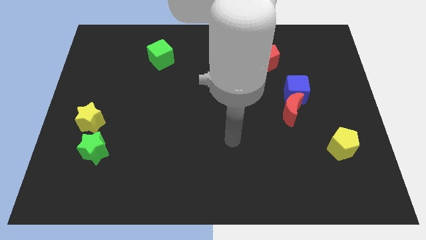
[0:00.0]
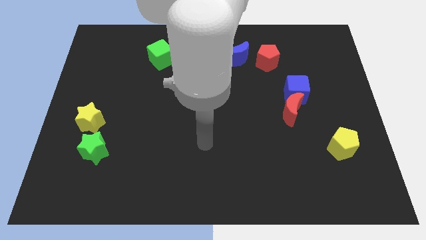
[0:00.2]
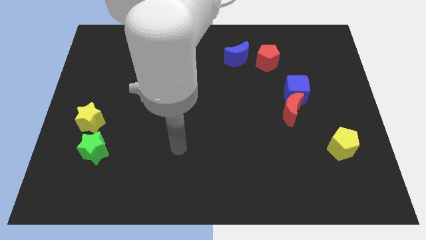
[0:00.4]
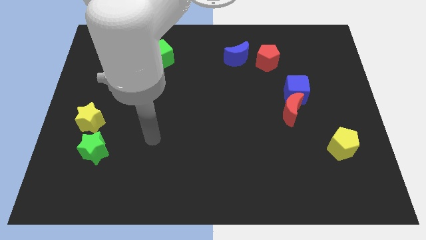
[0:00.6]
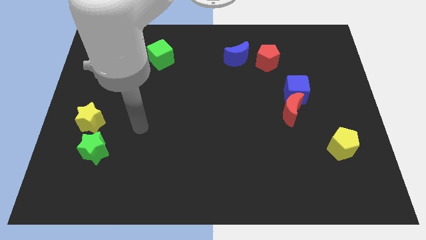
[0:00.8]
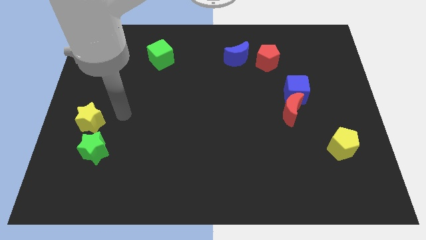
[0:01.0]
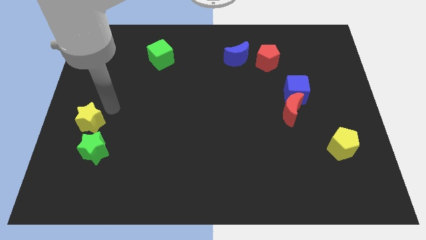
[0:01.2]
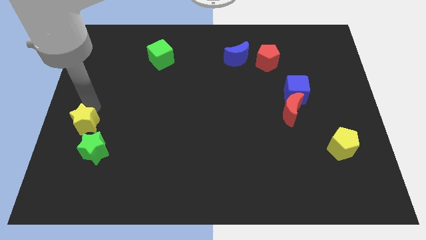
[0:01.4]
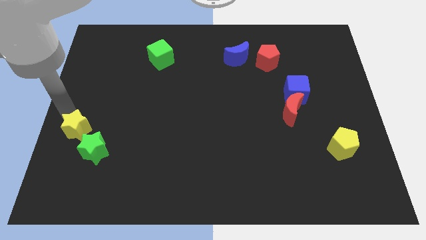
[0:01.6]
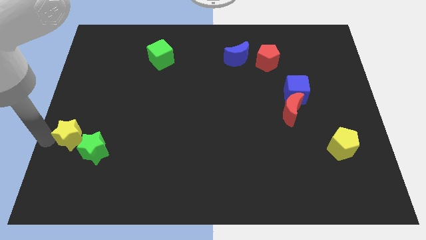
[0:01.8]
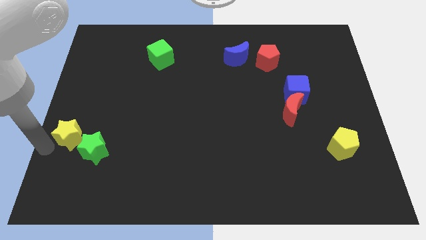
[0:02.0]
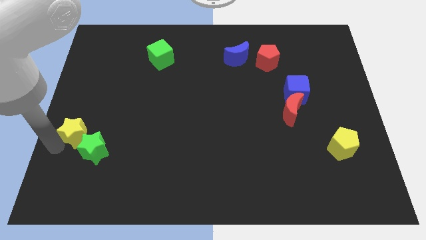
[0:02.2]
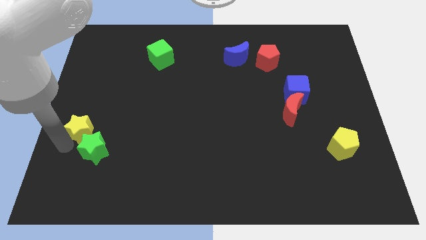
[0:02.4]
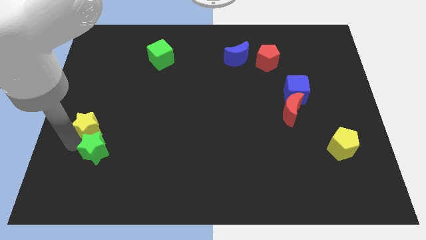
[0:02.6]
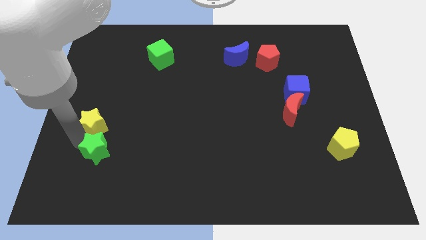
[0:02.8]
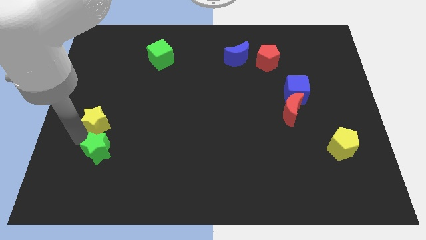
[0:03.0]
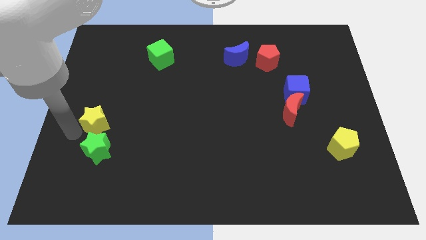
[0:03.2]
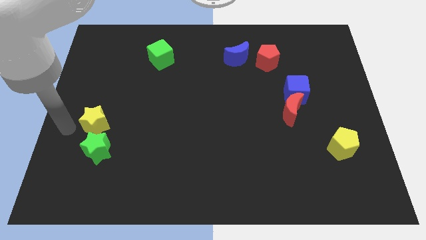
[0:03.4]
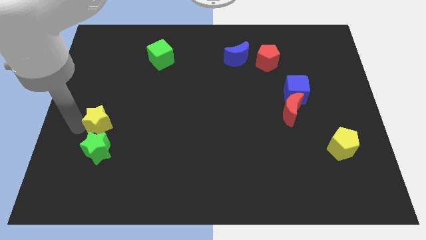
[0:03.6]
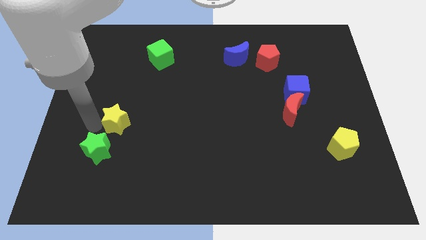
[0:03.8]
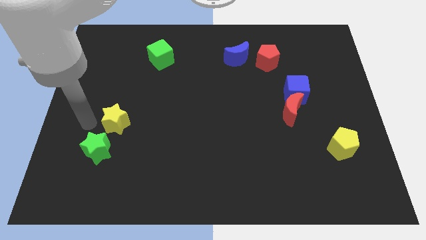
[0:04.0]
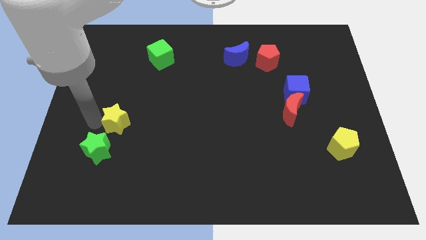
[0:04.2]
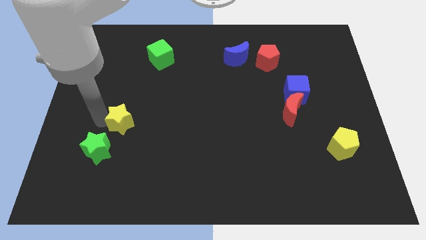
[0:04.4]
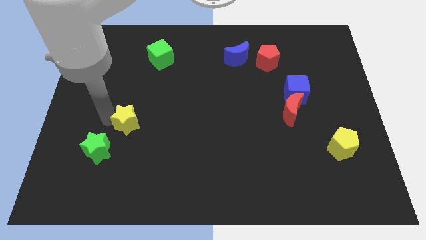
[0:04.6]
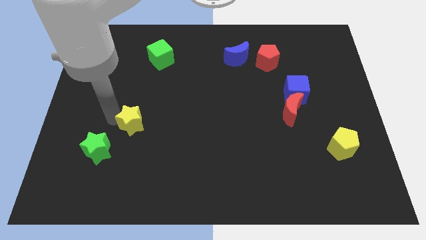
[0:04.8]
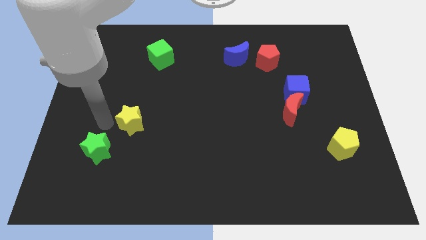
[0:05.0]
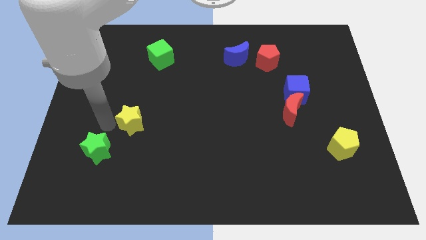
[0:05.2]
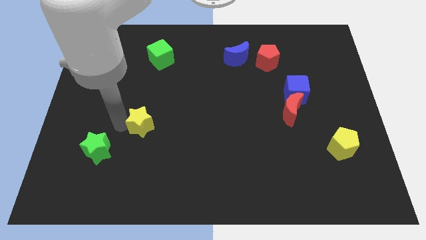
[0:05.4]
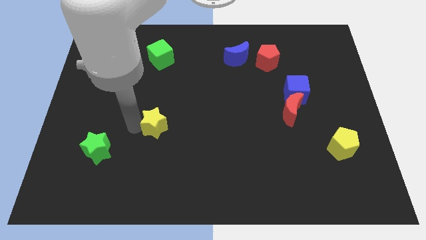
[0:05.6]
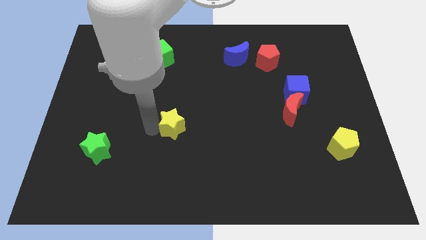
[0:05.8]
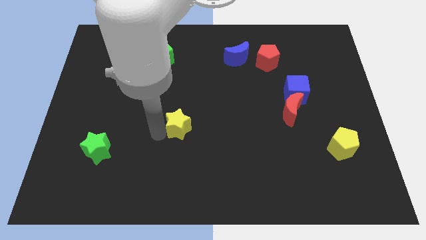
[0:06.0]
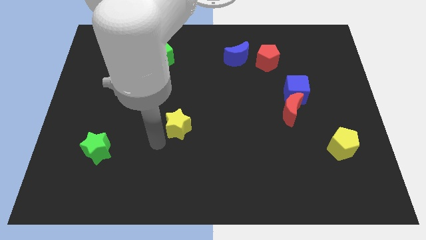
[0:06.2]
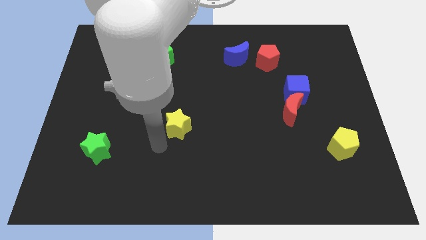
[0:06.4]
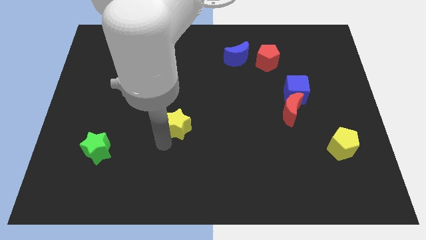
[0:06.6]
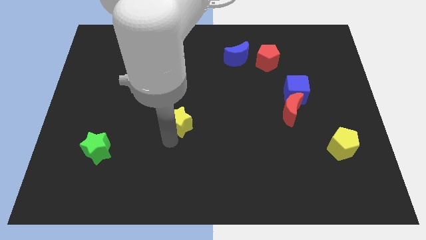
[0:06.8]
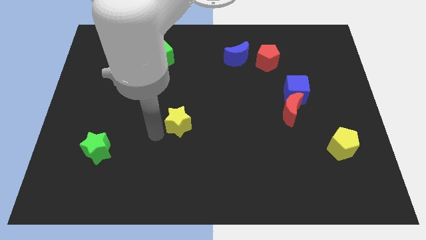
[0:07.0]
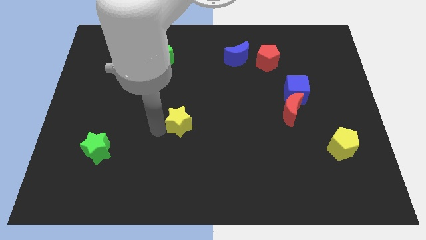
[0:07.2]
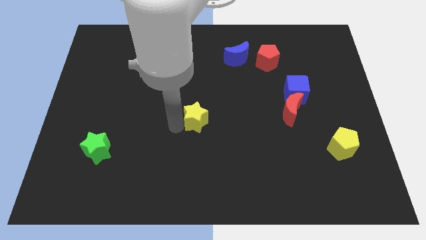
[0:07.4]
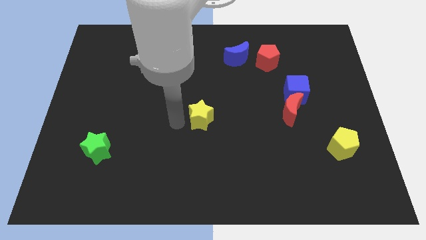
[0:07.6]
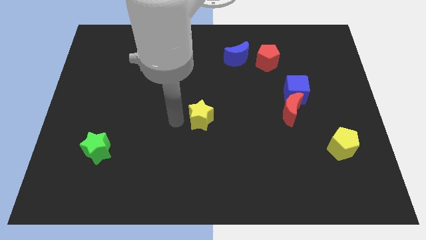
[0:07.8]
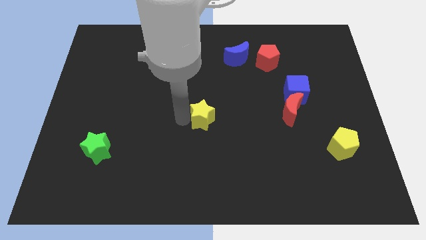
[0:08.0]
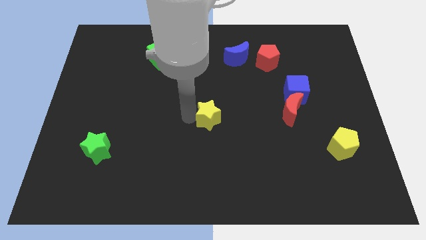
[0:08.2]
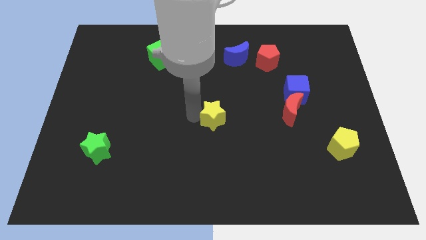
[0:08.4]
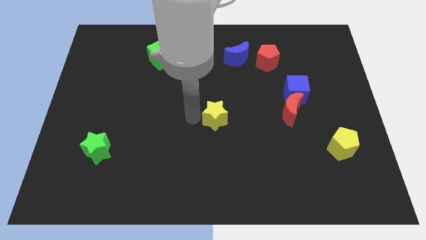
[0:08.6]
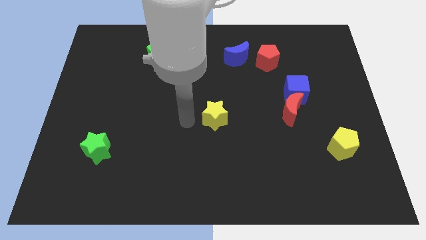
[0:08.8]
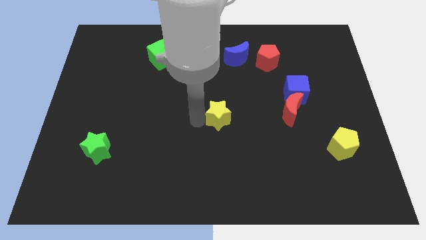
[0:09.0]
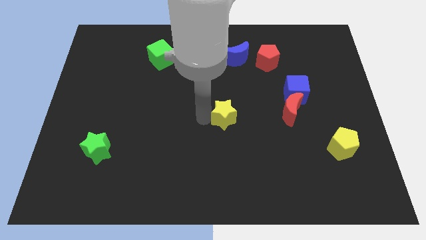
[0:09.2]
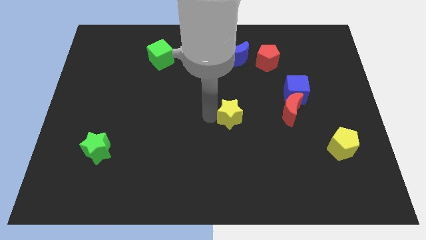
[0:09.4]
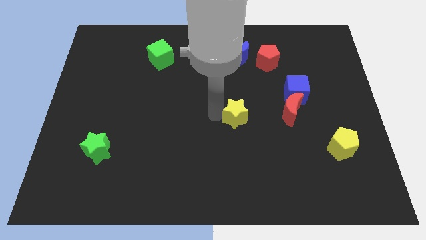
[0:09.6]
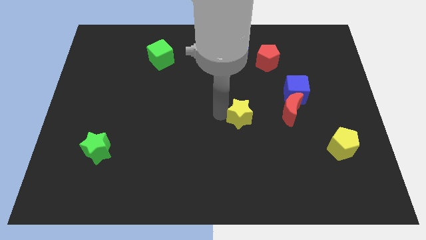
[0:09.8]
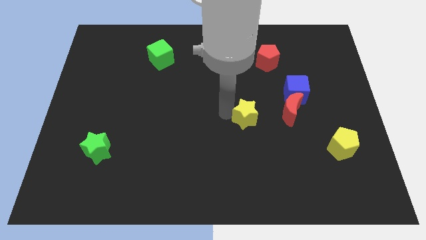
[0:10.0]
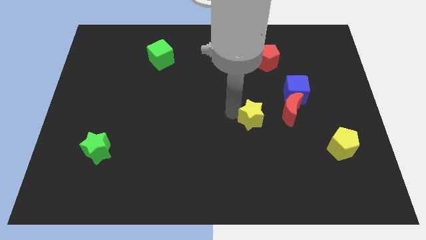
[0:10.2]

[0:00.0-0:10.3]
slide the yellow star to the bottom left of the red moon

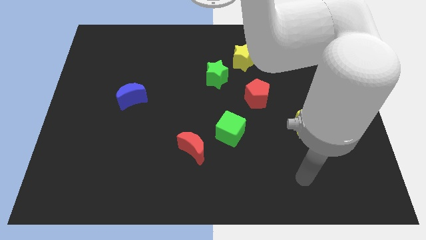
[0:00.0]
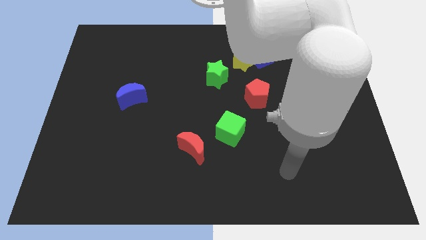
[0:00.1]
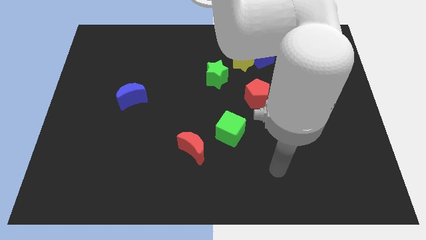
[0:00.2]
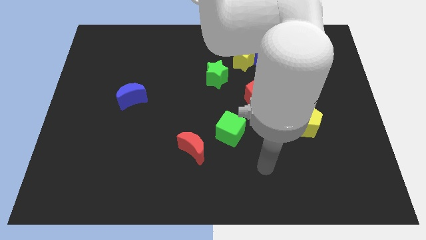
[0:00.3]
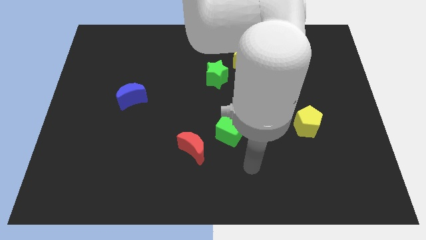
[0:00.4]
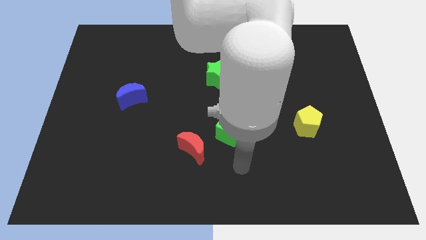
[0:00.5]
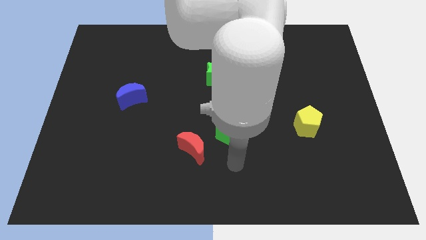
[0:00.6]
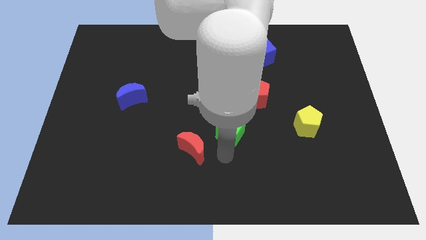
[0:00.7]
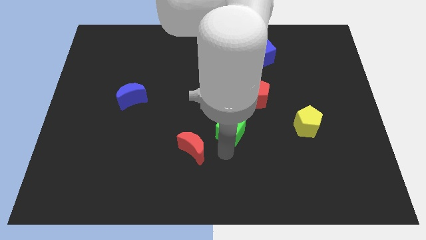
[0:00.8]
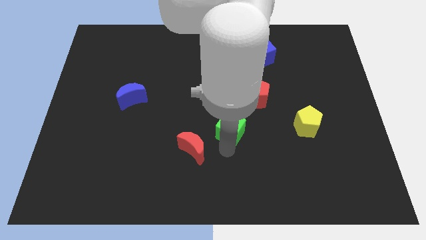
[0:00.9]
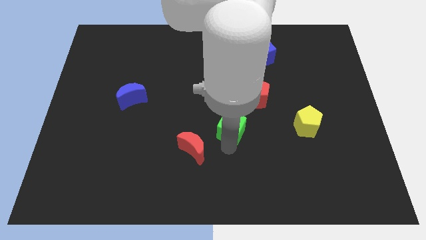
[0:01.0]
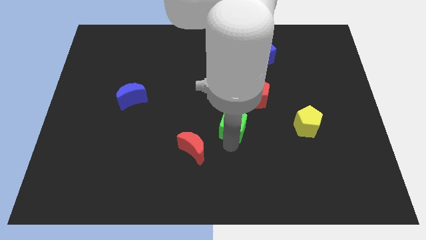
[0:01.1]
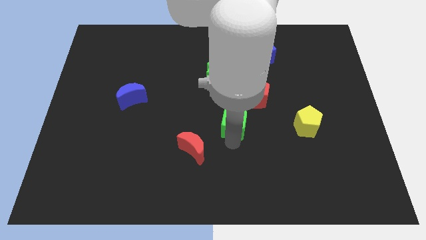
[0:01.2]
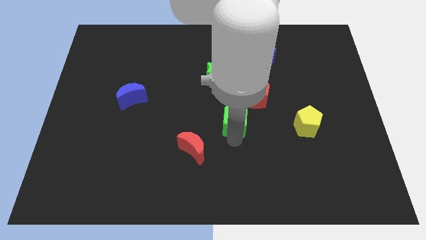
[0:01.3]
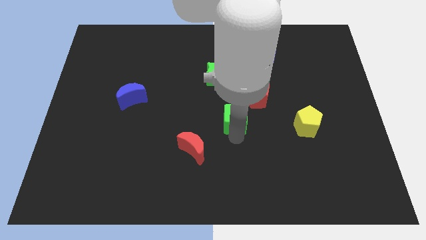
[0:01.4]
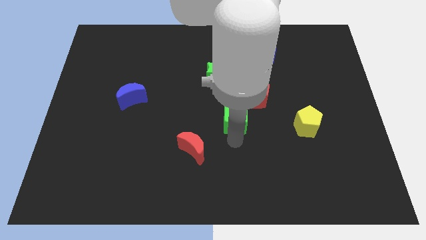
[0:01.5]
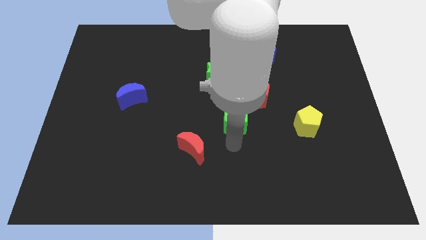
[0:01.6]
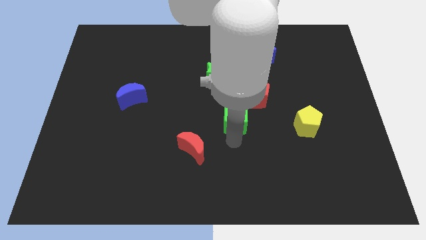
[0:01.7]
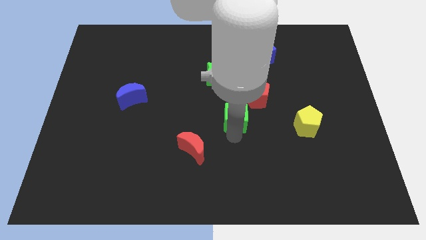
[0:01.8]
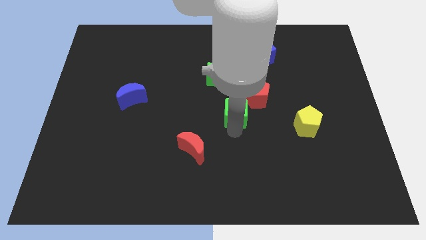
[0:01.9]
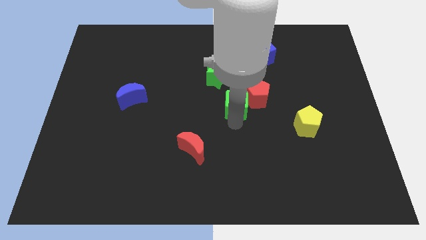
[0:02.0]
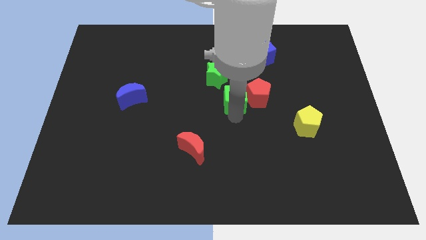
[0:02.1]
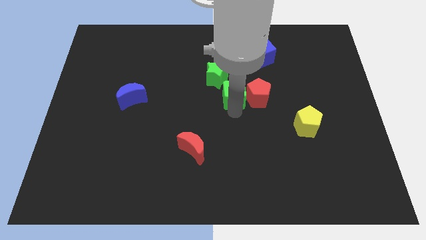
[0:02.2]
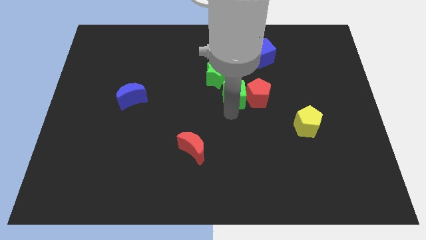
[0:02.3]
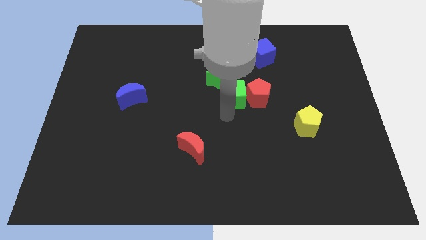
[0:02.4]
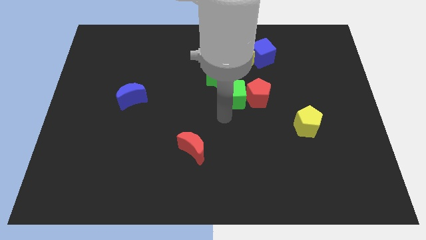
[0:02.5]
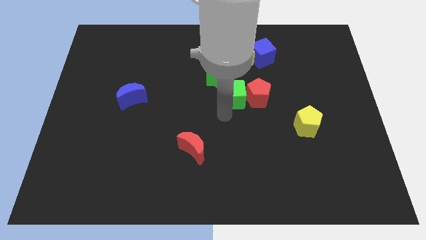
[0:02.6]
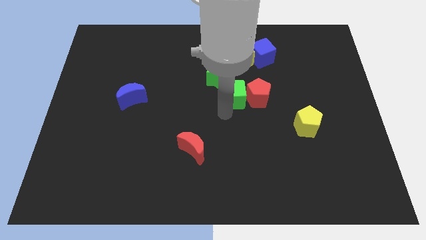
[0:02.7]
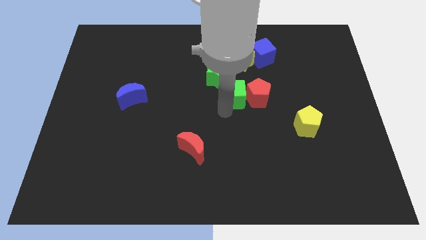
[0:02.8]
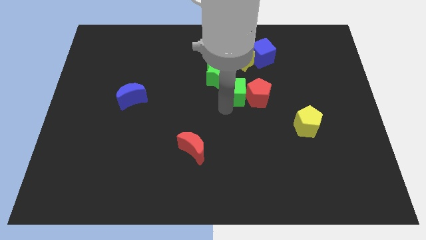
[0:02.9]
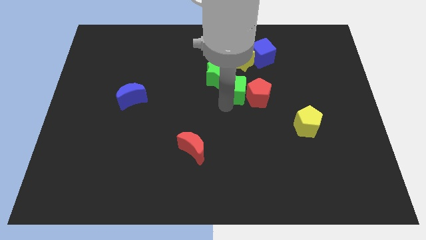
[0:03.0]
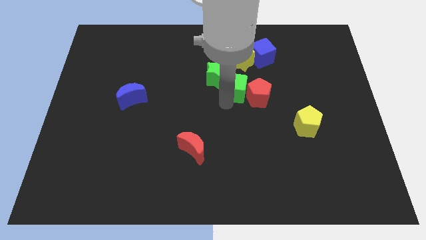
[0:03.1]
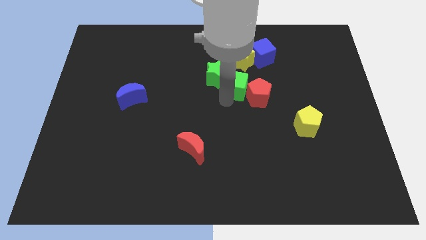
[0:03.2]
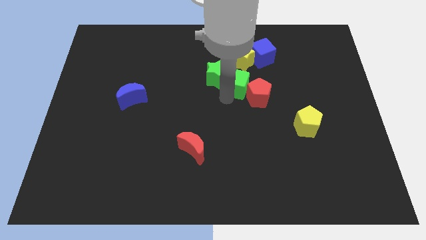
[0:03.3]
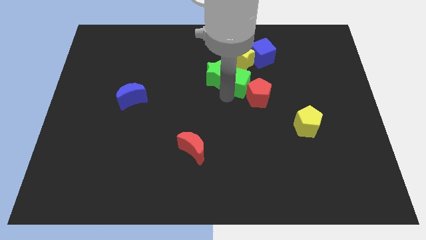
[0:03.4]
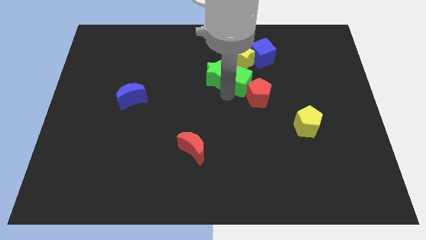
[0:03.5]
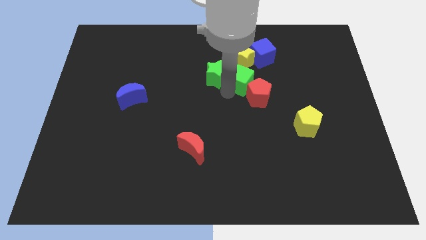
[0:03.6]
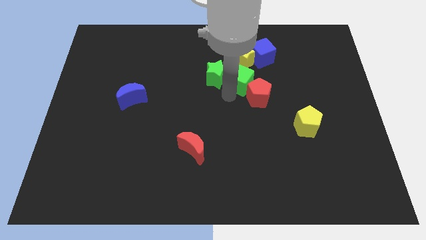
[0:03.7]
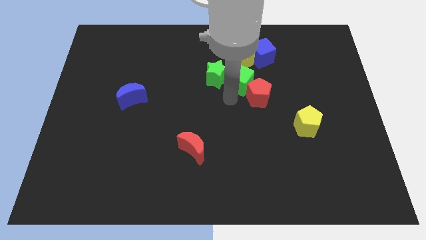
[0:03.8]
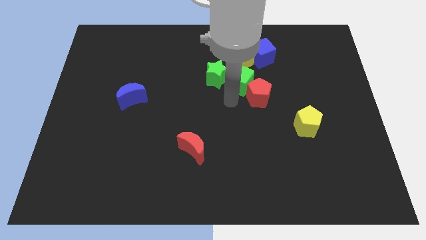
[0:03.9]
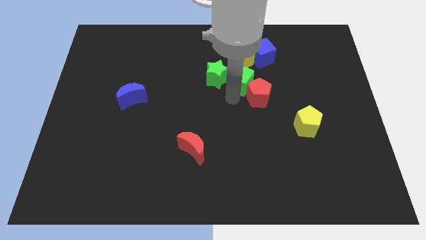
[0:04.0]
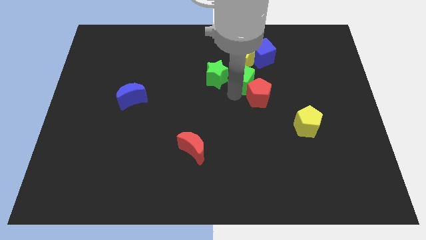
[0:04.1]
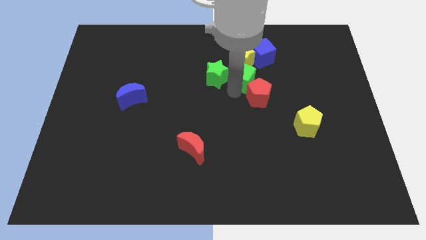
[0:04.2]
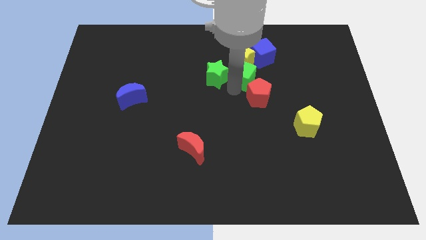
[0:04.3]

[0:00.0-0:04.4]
slide the green cube to the bottom right of the yellow star
